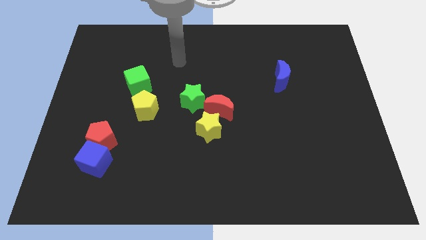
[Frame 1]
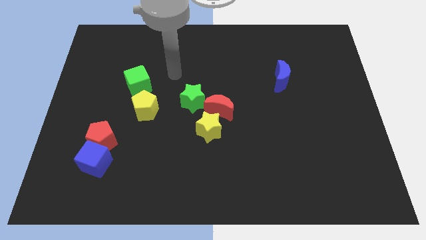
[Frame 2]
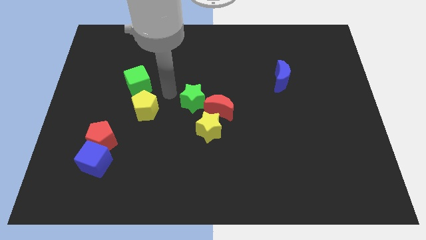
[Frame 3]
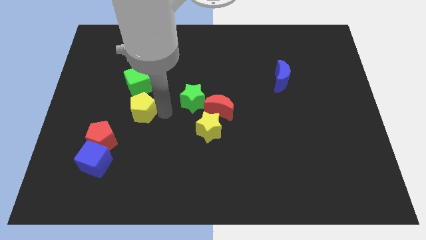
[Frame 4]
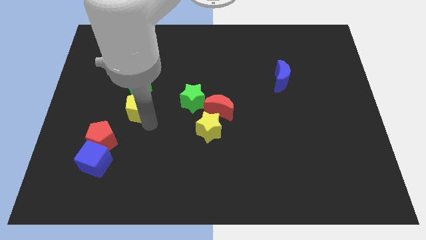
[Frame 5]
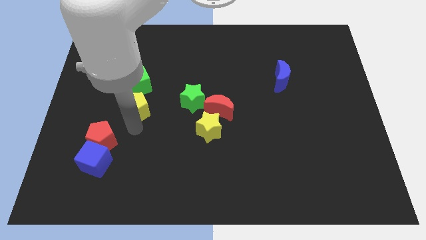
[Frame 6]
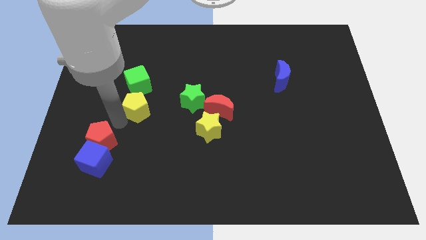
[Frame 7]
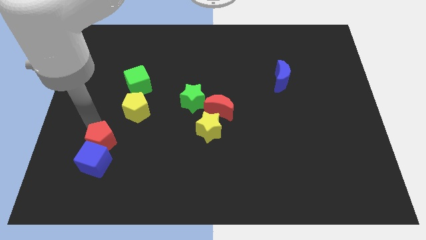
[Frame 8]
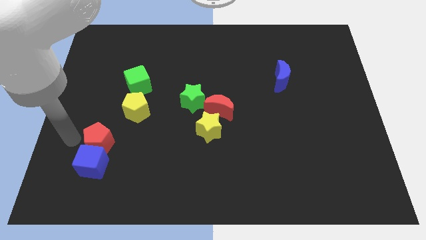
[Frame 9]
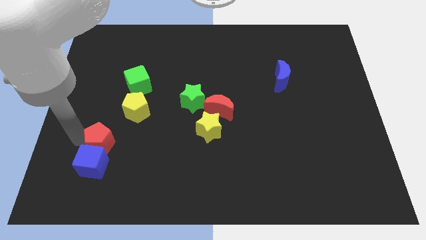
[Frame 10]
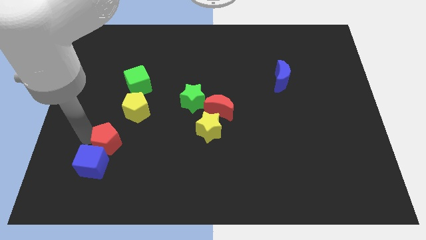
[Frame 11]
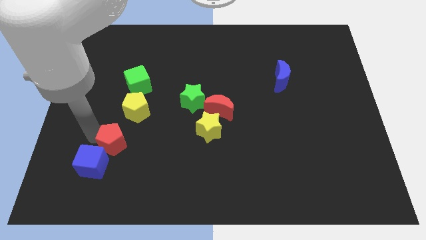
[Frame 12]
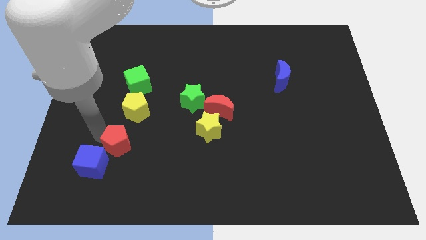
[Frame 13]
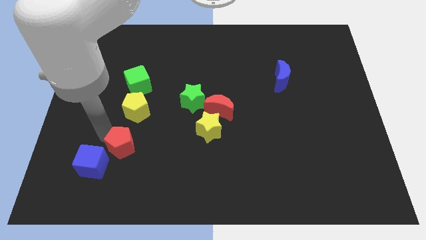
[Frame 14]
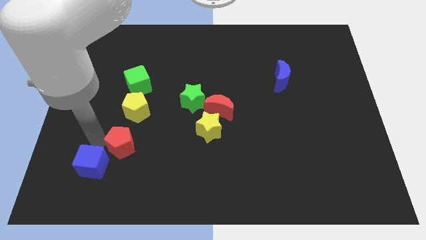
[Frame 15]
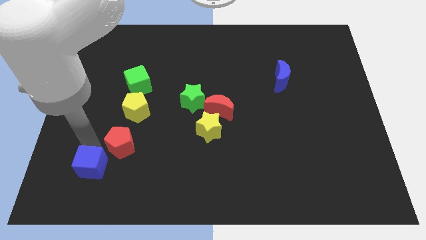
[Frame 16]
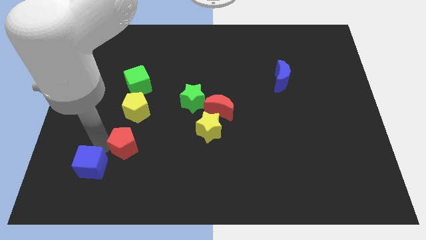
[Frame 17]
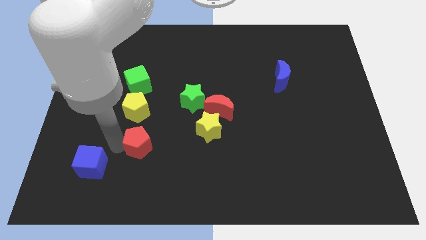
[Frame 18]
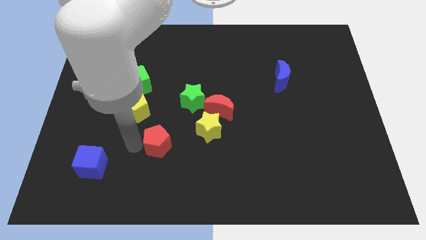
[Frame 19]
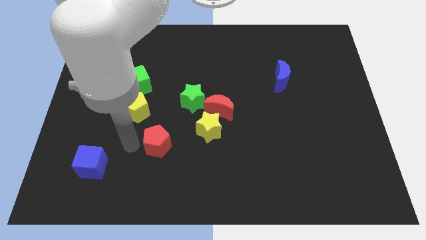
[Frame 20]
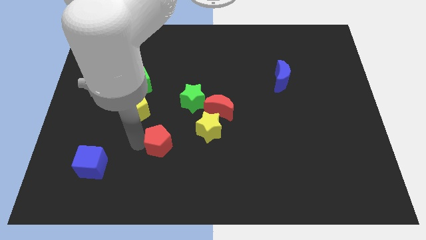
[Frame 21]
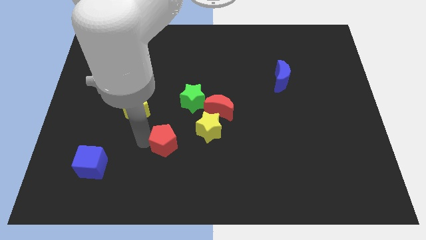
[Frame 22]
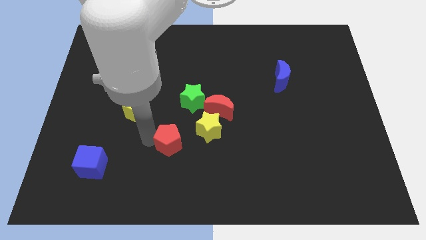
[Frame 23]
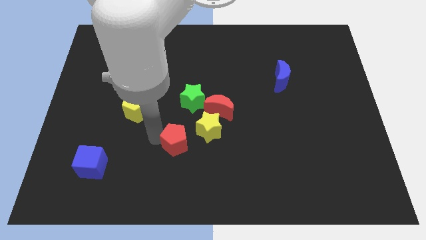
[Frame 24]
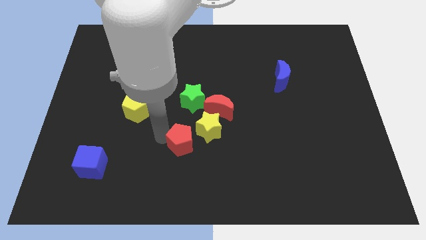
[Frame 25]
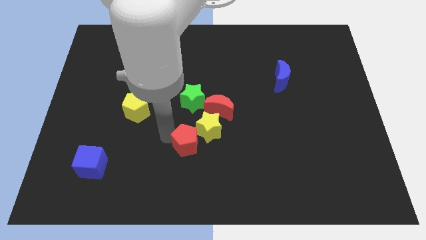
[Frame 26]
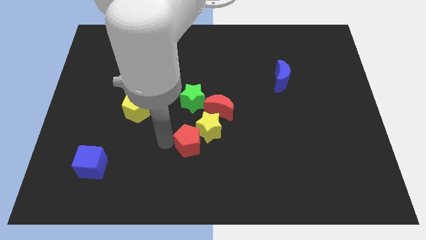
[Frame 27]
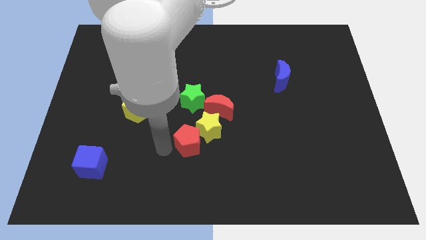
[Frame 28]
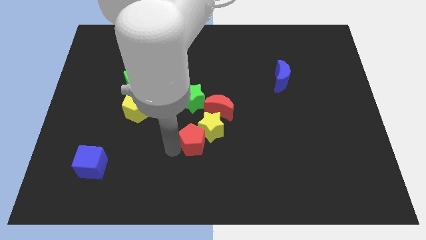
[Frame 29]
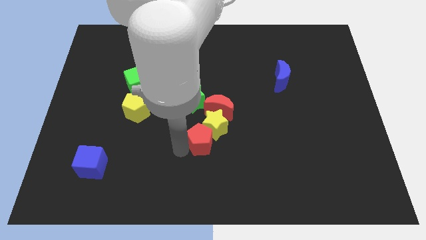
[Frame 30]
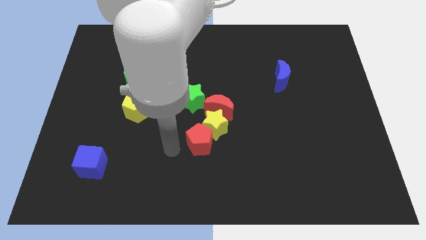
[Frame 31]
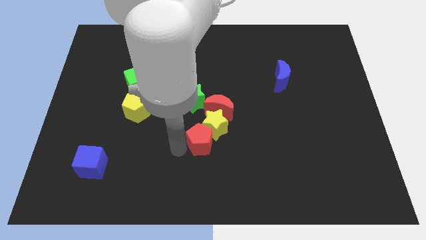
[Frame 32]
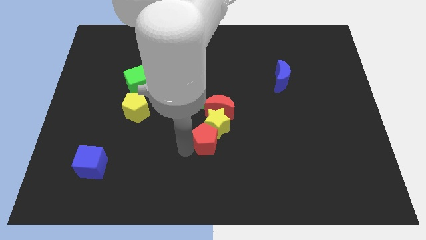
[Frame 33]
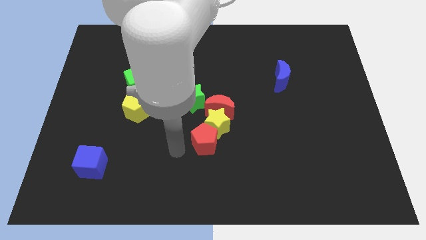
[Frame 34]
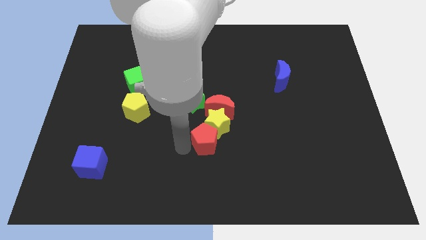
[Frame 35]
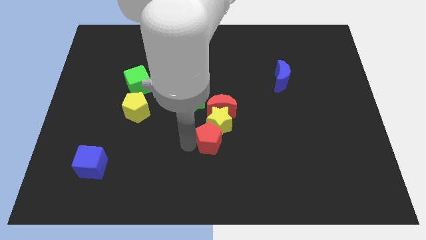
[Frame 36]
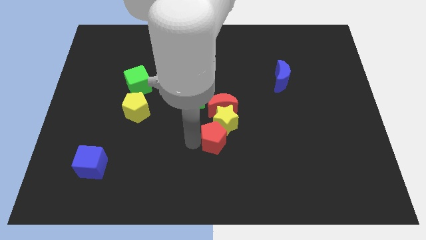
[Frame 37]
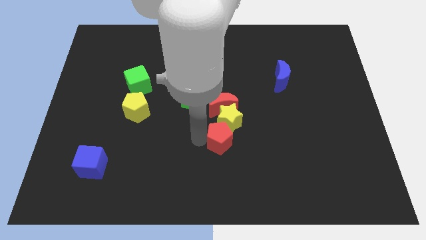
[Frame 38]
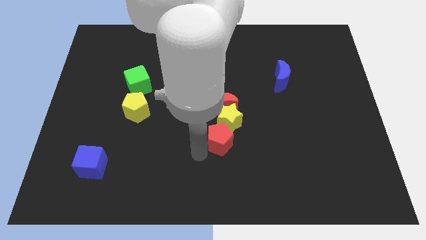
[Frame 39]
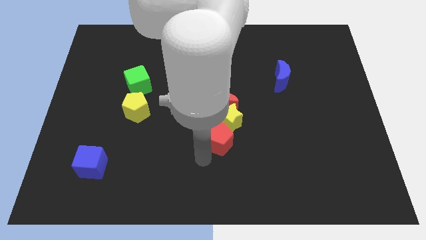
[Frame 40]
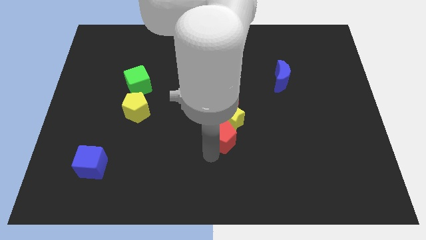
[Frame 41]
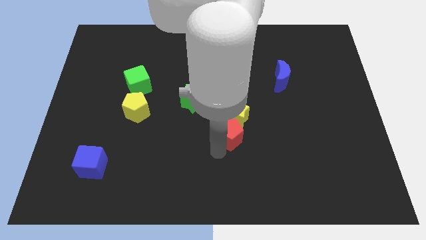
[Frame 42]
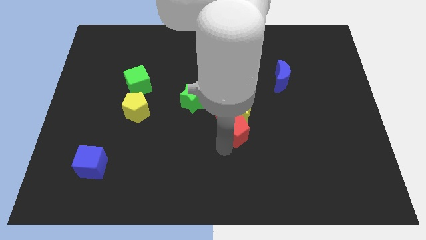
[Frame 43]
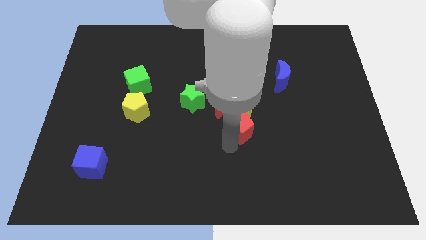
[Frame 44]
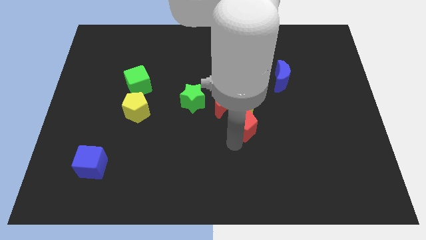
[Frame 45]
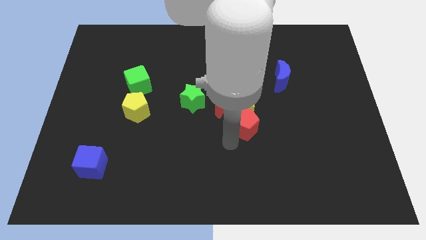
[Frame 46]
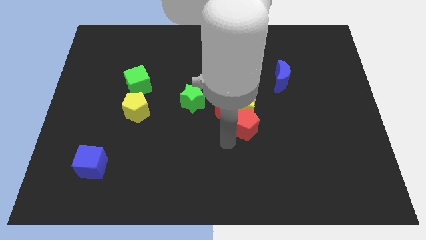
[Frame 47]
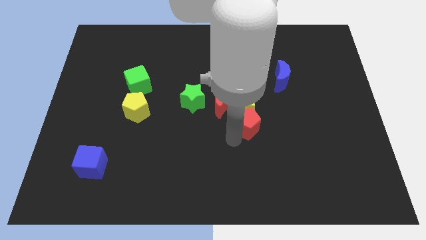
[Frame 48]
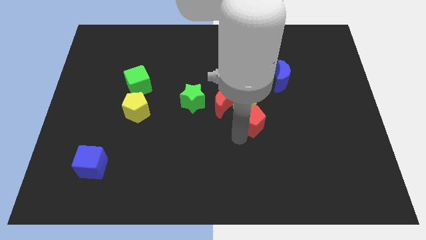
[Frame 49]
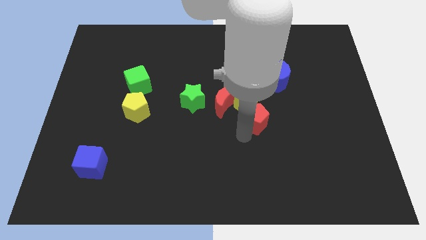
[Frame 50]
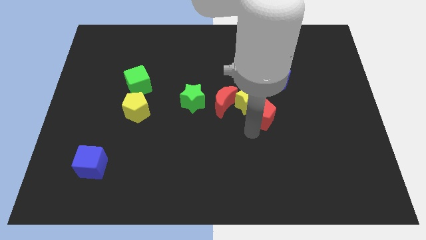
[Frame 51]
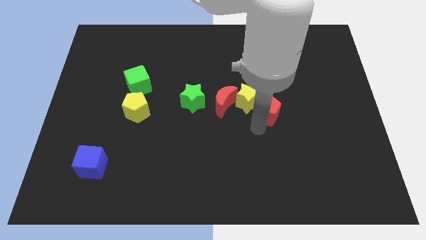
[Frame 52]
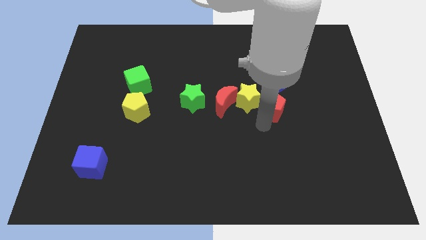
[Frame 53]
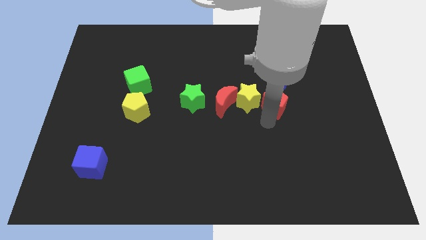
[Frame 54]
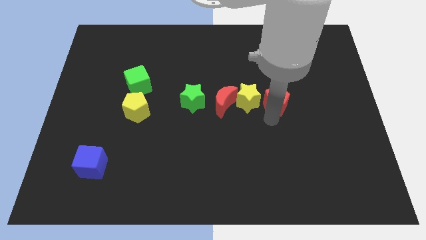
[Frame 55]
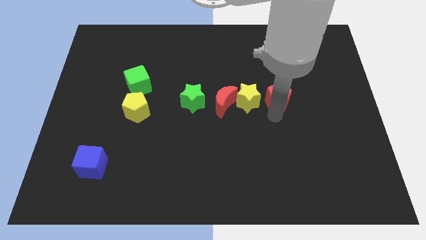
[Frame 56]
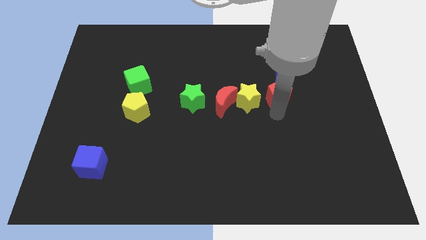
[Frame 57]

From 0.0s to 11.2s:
push the red pentagon next to the blue moon

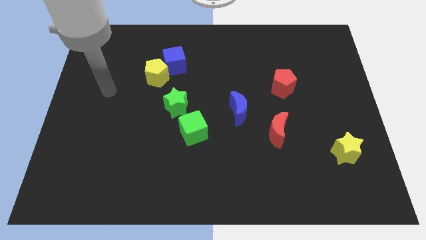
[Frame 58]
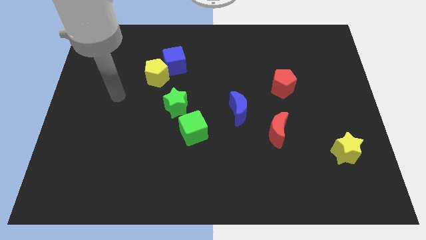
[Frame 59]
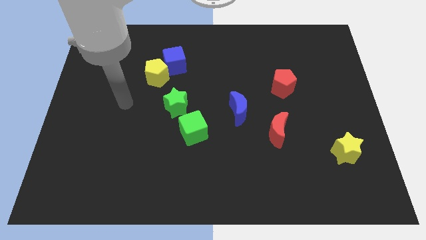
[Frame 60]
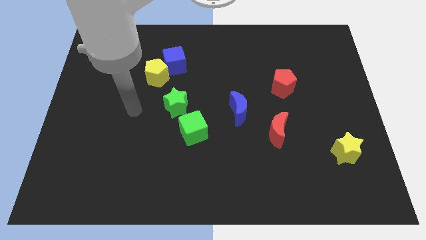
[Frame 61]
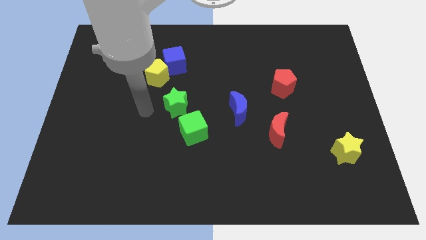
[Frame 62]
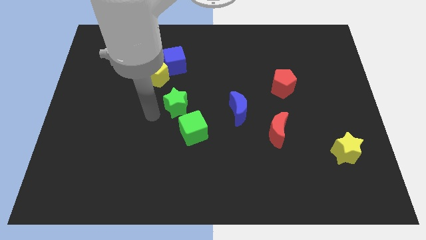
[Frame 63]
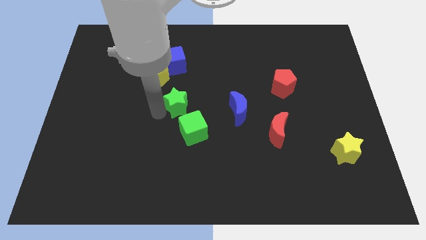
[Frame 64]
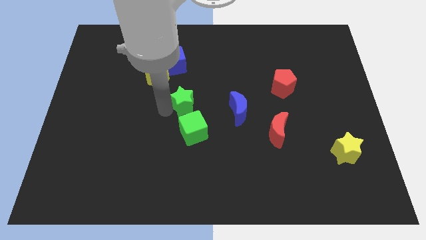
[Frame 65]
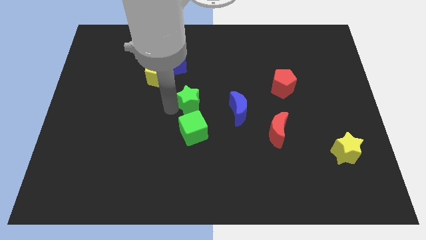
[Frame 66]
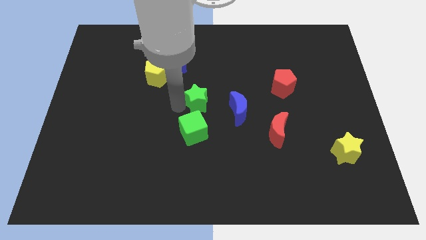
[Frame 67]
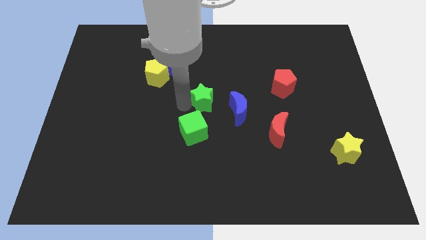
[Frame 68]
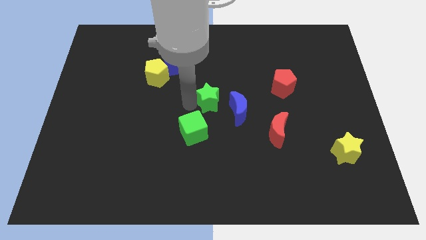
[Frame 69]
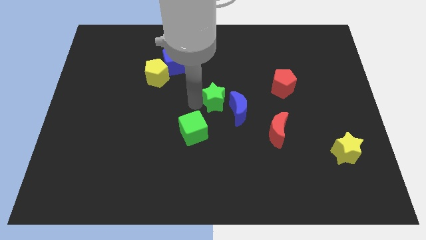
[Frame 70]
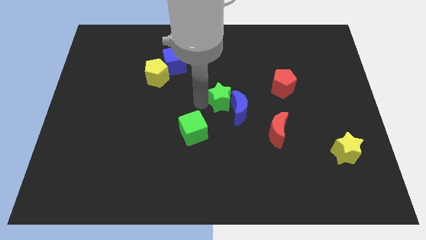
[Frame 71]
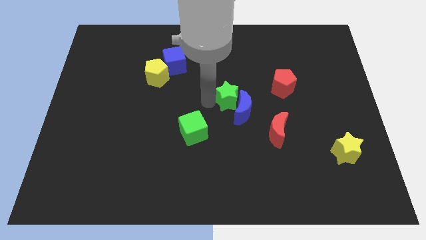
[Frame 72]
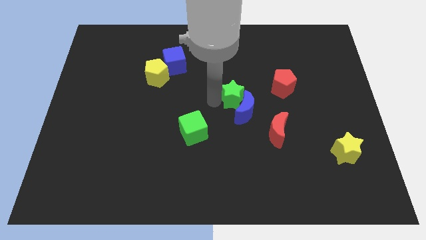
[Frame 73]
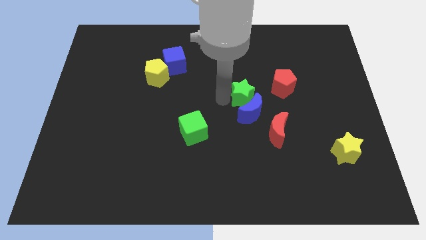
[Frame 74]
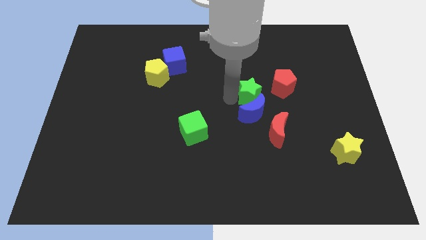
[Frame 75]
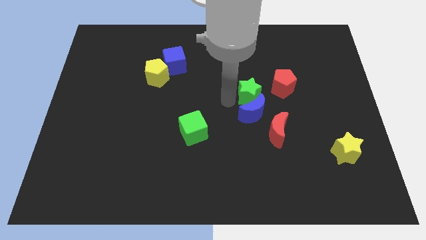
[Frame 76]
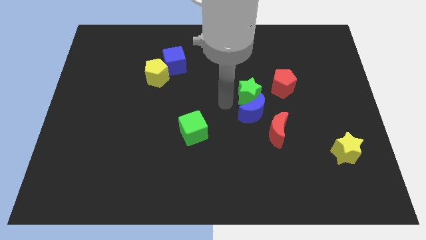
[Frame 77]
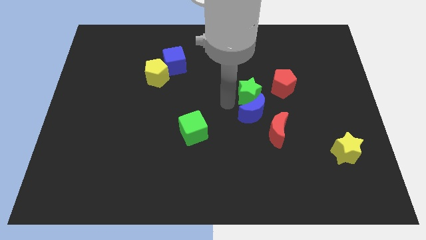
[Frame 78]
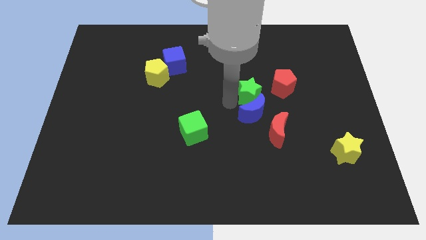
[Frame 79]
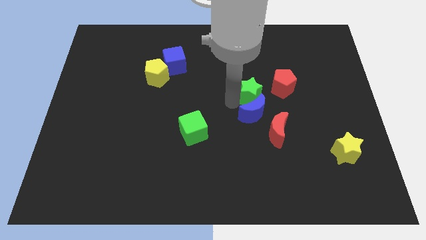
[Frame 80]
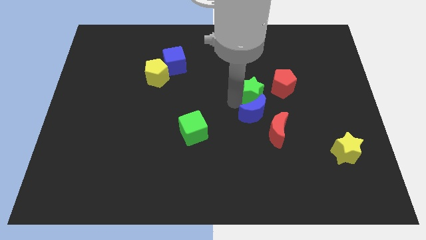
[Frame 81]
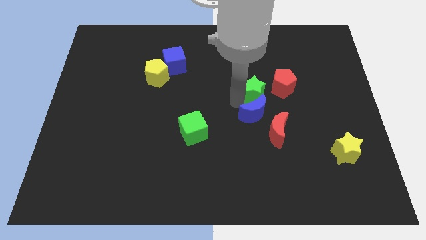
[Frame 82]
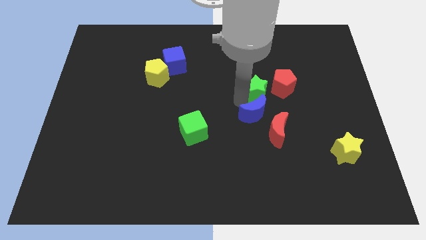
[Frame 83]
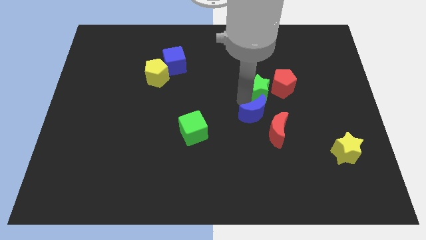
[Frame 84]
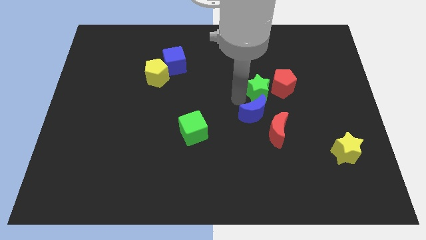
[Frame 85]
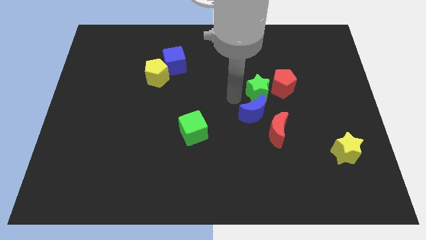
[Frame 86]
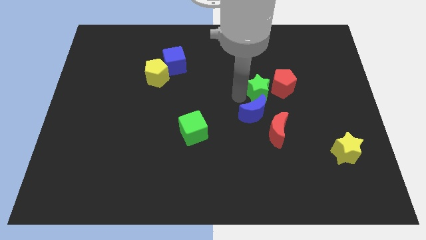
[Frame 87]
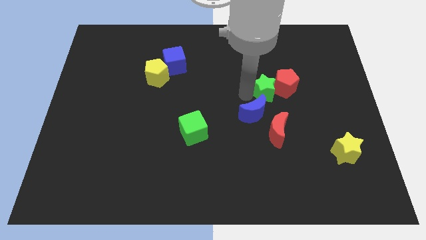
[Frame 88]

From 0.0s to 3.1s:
move the green star towards the red pentagon
